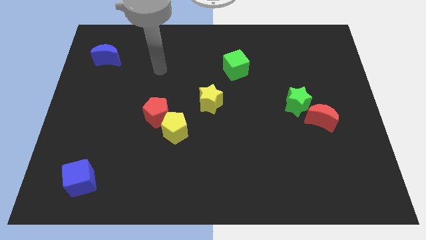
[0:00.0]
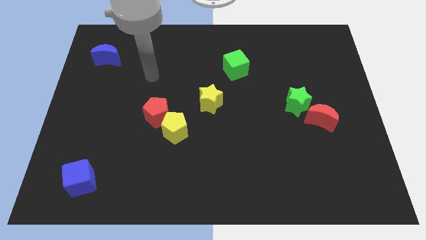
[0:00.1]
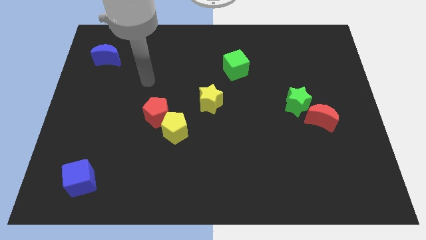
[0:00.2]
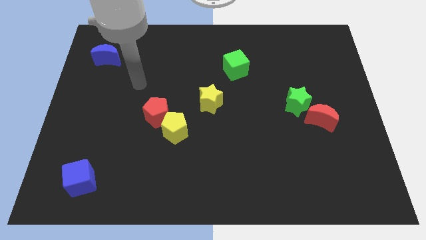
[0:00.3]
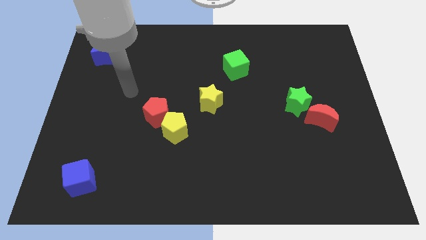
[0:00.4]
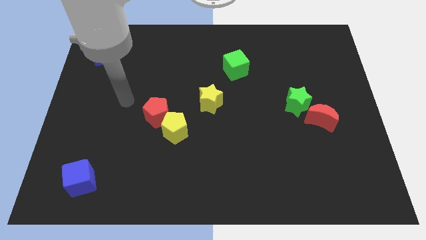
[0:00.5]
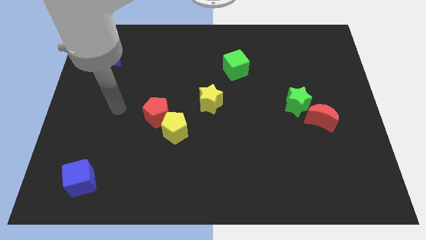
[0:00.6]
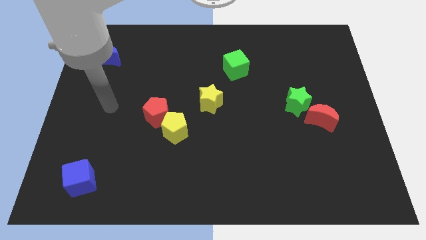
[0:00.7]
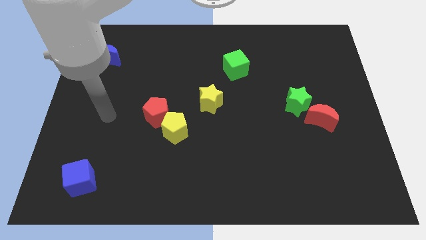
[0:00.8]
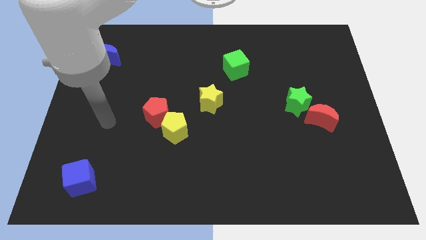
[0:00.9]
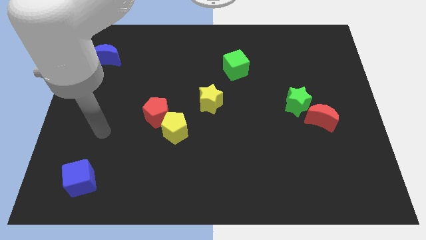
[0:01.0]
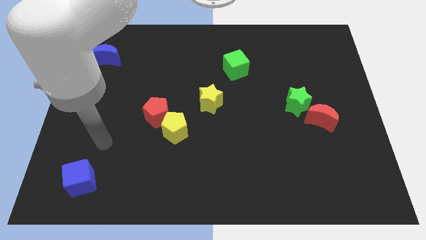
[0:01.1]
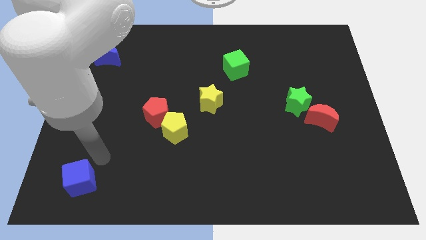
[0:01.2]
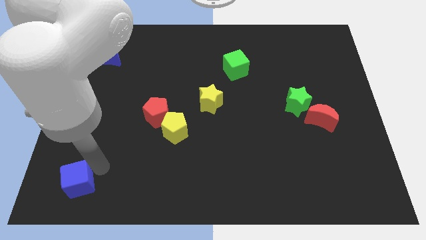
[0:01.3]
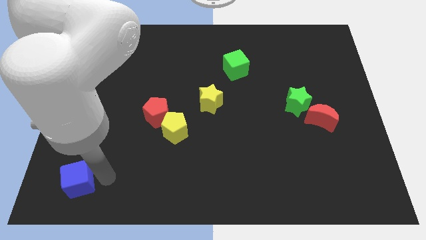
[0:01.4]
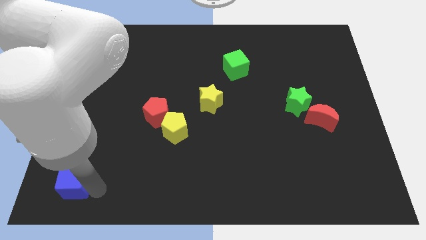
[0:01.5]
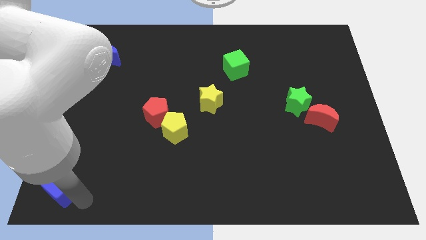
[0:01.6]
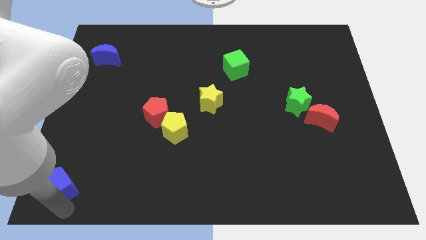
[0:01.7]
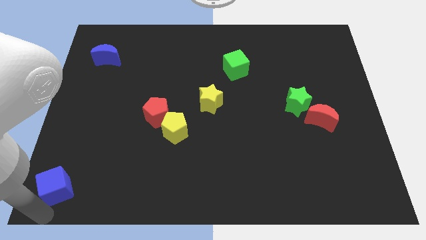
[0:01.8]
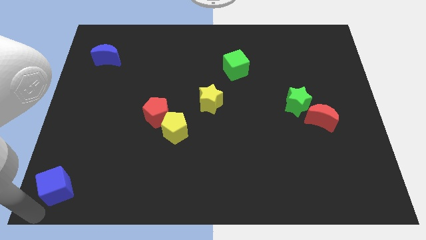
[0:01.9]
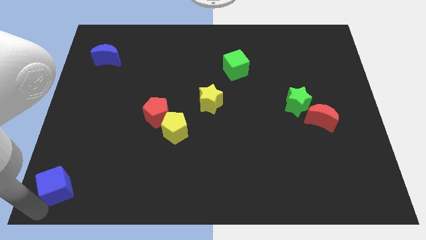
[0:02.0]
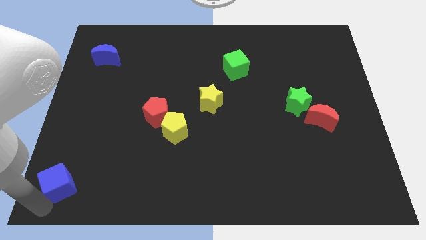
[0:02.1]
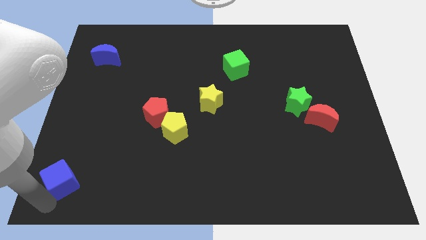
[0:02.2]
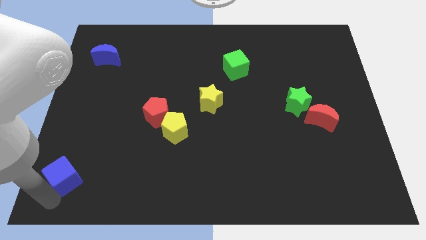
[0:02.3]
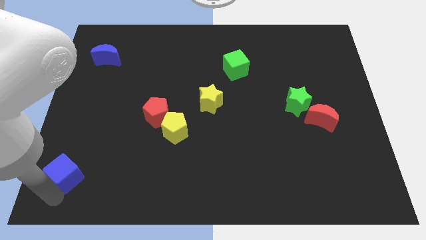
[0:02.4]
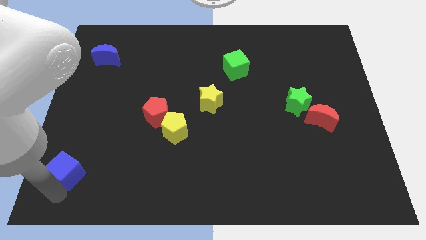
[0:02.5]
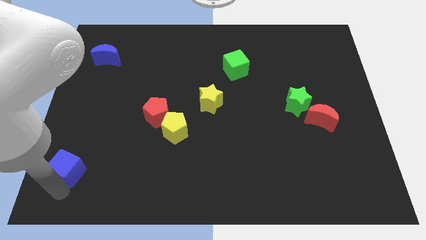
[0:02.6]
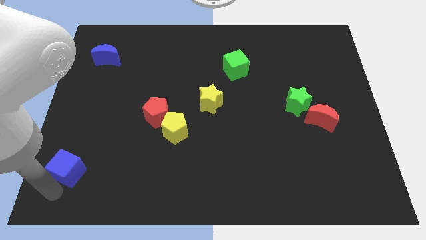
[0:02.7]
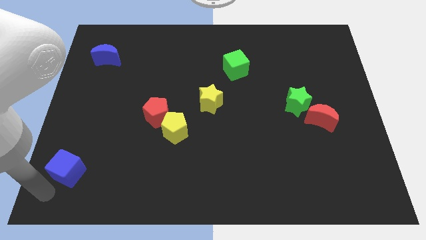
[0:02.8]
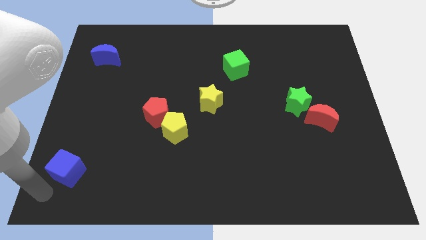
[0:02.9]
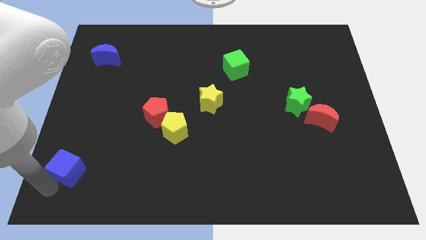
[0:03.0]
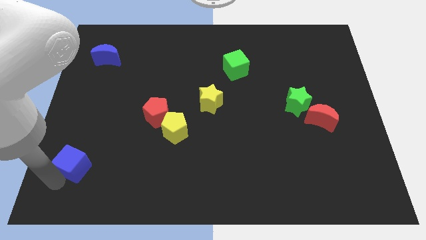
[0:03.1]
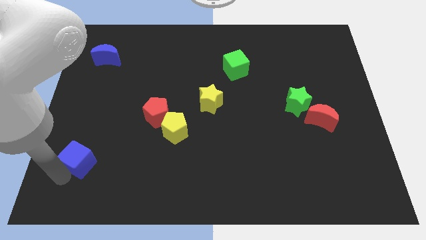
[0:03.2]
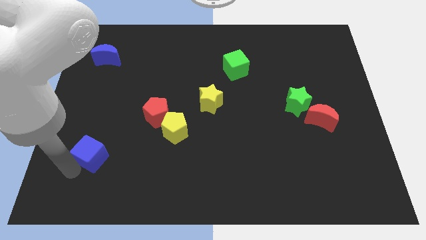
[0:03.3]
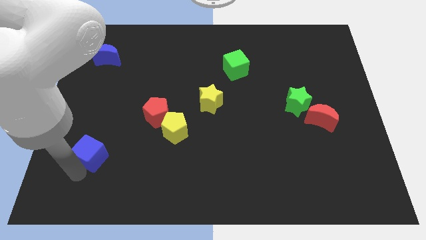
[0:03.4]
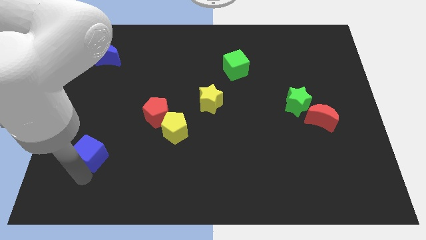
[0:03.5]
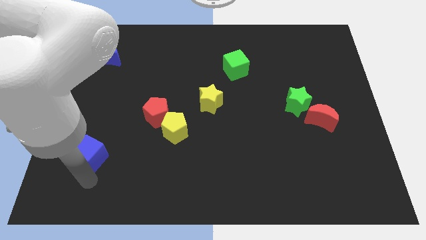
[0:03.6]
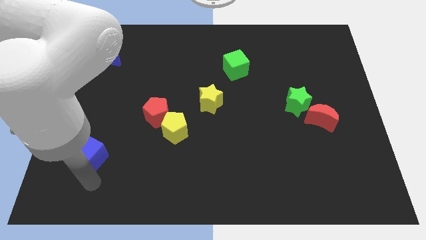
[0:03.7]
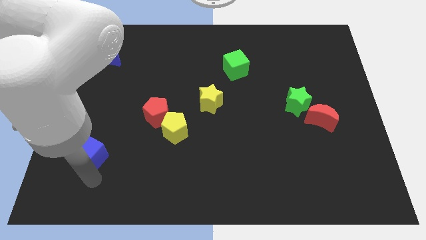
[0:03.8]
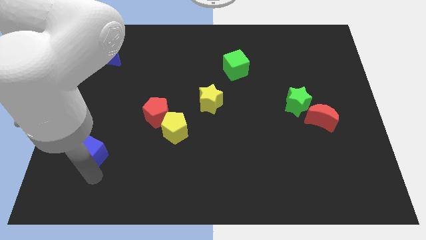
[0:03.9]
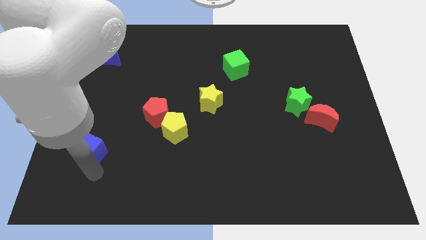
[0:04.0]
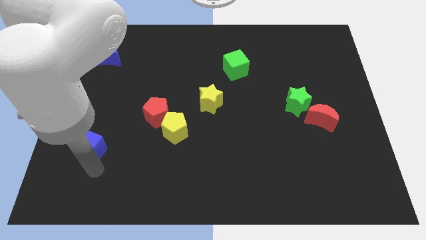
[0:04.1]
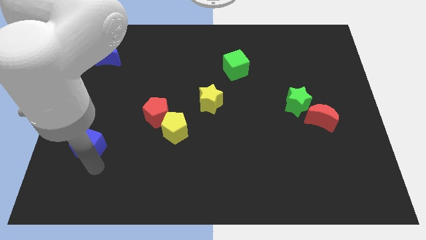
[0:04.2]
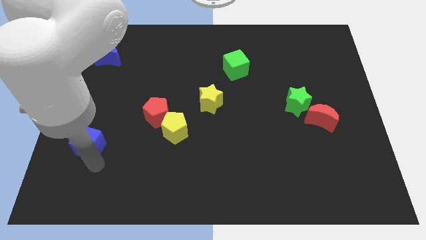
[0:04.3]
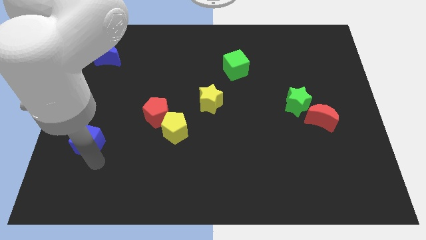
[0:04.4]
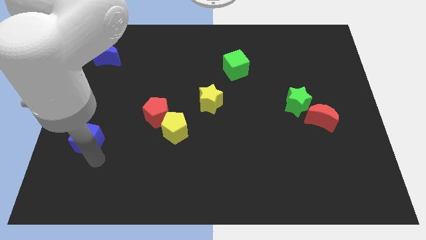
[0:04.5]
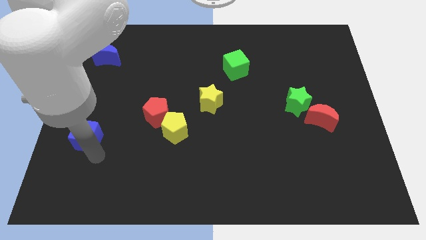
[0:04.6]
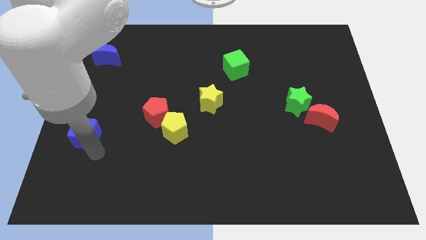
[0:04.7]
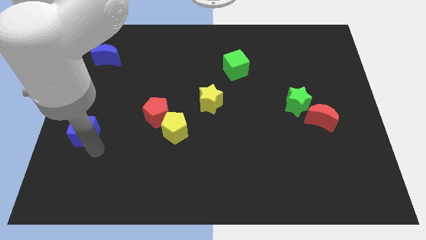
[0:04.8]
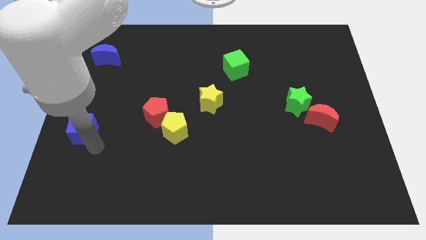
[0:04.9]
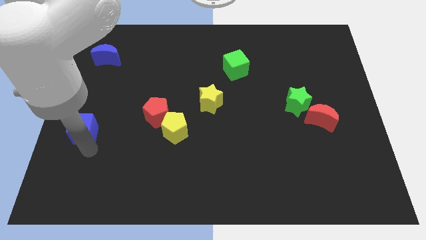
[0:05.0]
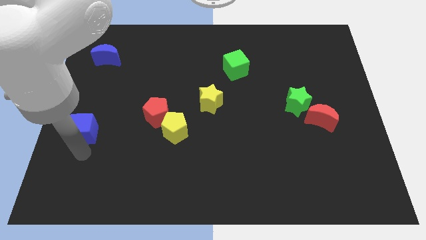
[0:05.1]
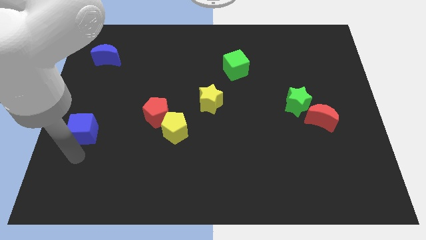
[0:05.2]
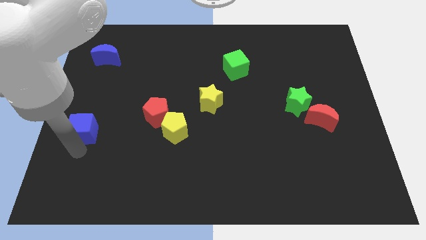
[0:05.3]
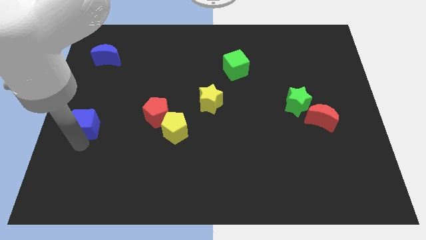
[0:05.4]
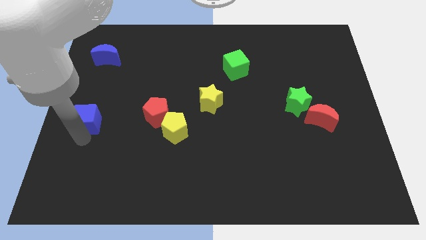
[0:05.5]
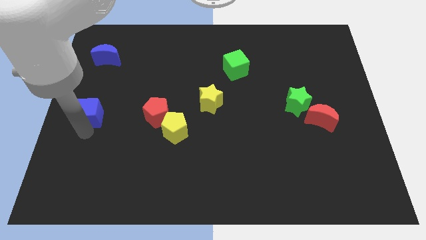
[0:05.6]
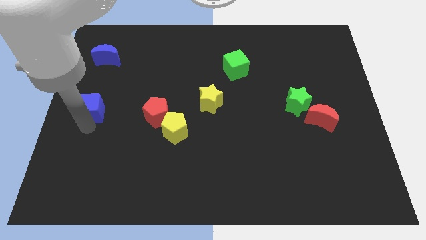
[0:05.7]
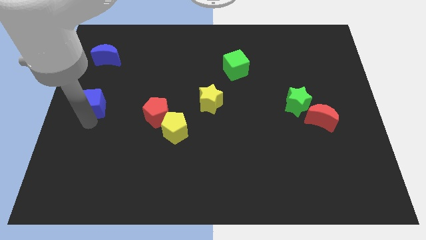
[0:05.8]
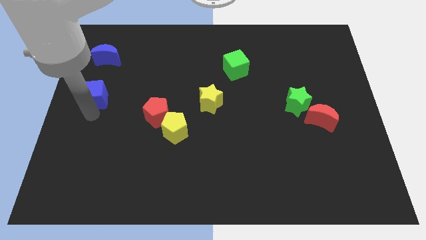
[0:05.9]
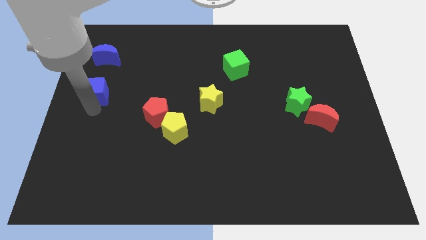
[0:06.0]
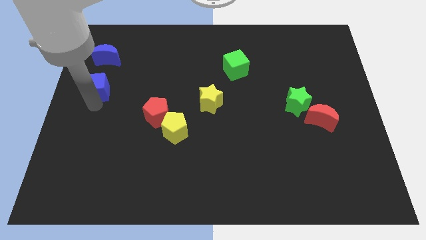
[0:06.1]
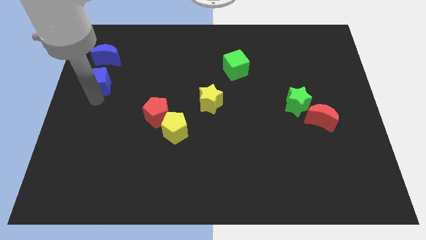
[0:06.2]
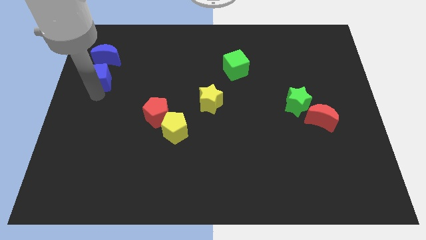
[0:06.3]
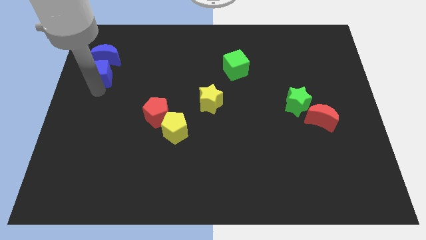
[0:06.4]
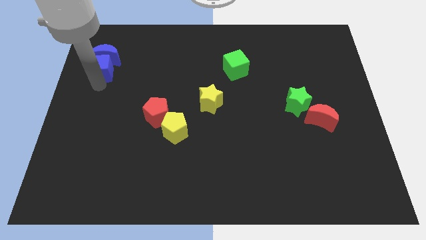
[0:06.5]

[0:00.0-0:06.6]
push the blue cube close to the blue moon

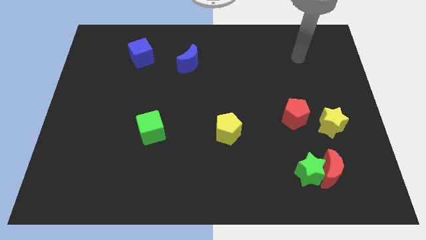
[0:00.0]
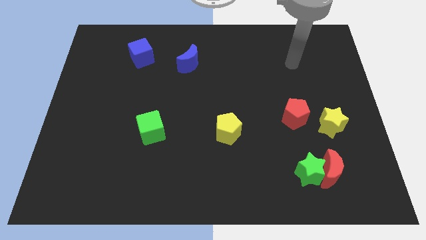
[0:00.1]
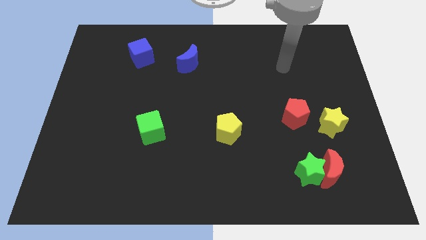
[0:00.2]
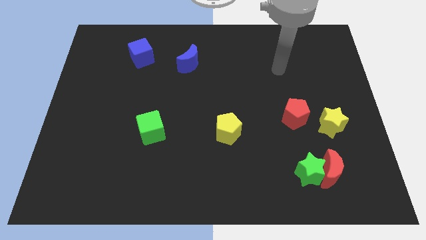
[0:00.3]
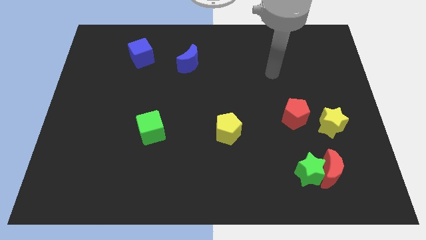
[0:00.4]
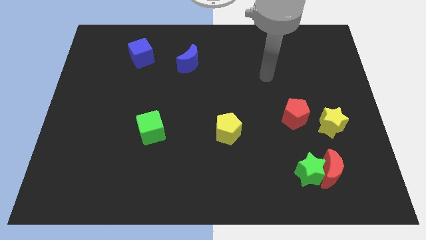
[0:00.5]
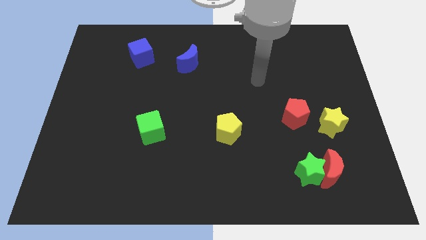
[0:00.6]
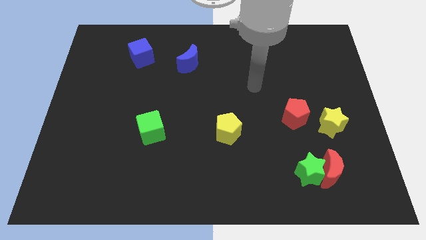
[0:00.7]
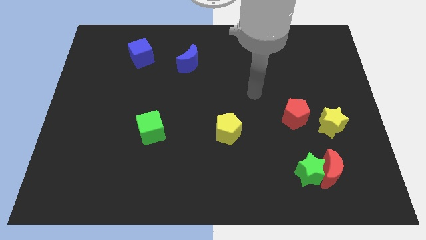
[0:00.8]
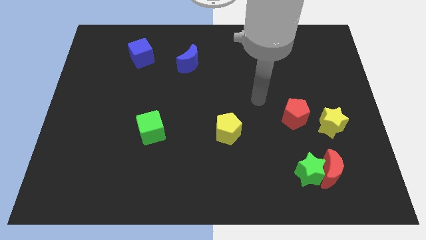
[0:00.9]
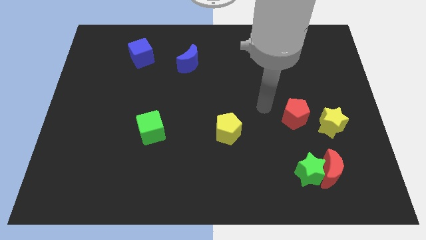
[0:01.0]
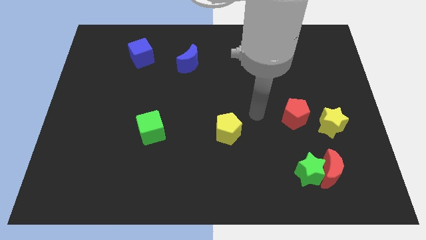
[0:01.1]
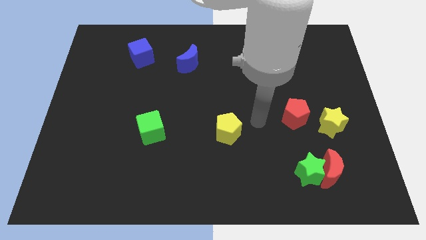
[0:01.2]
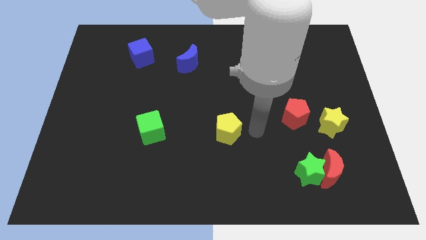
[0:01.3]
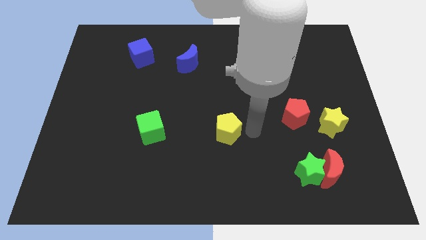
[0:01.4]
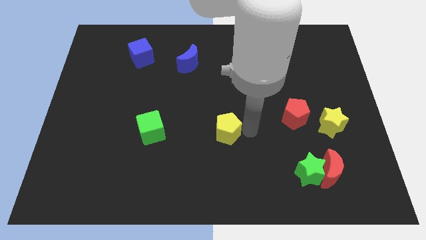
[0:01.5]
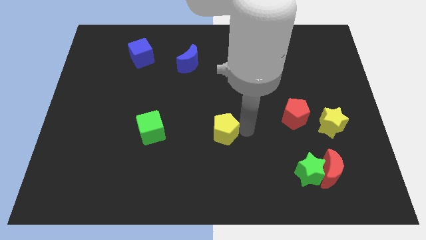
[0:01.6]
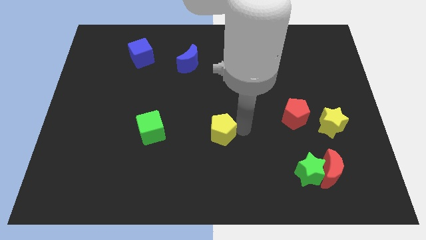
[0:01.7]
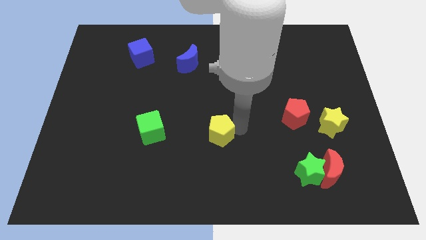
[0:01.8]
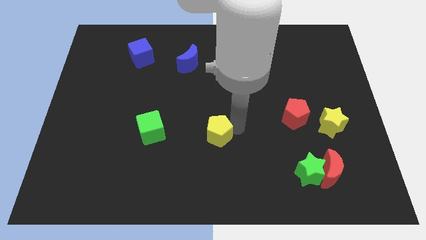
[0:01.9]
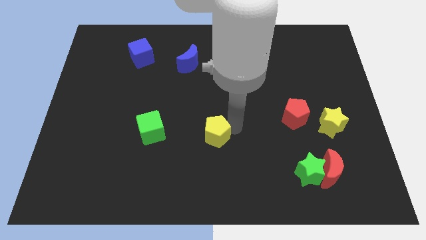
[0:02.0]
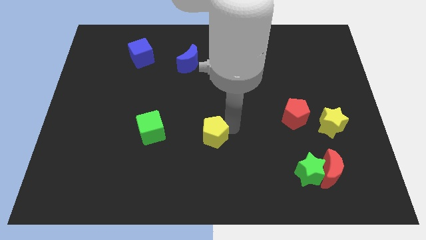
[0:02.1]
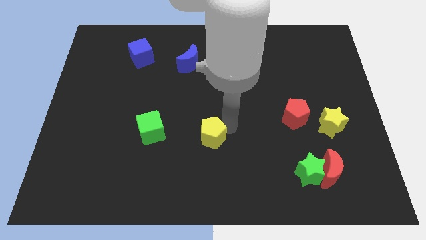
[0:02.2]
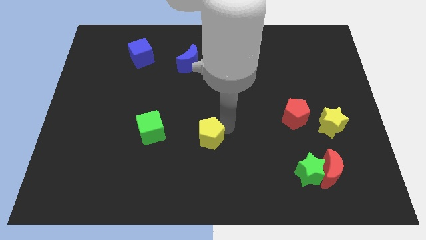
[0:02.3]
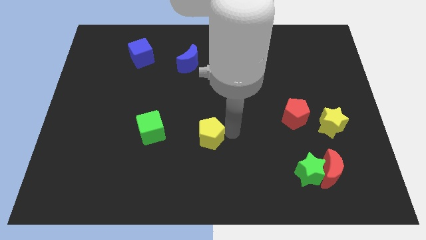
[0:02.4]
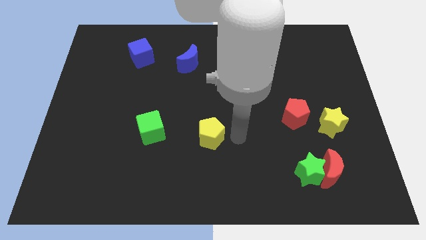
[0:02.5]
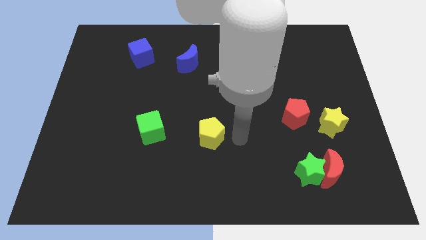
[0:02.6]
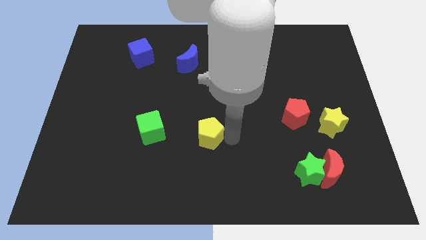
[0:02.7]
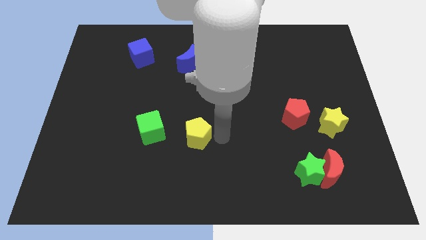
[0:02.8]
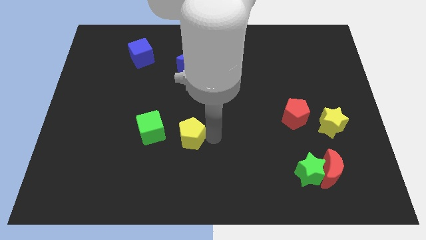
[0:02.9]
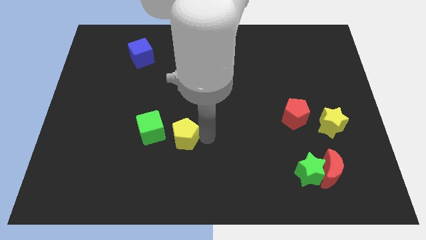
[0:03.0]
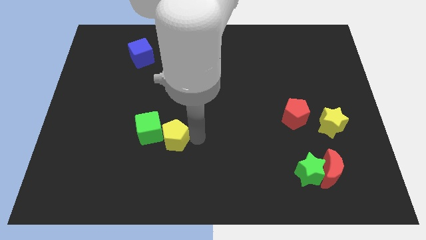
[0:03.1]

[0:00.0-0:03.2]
move the yellow pentagon to the green cube
